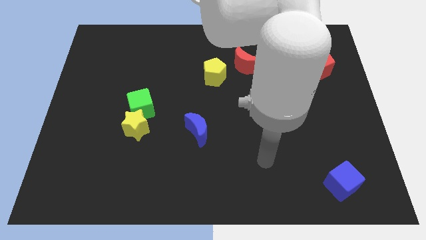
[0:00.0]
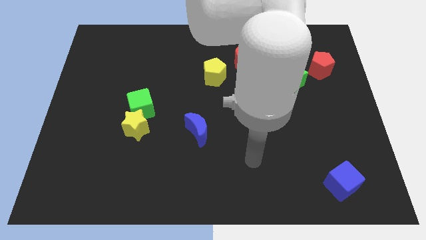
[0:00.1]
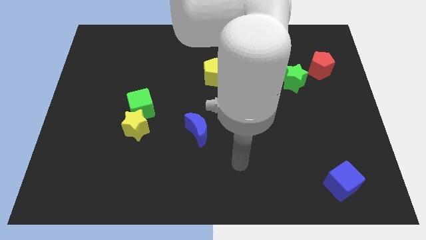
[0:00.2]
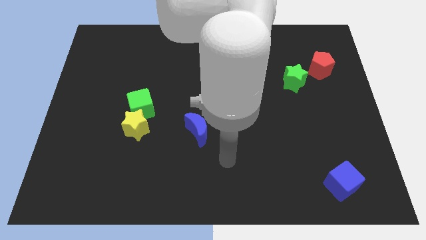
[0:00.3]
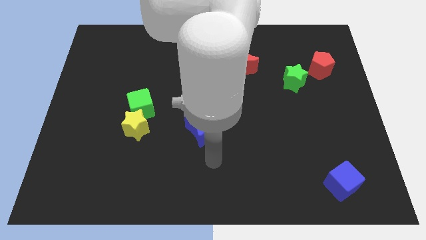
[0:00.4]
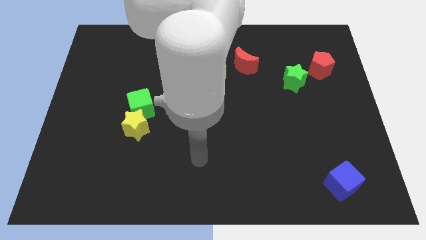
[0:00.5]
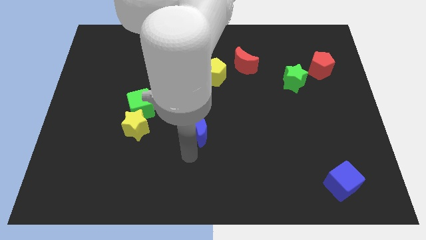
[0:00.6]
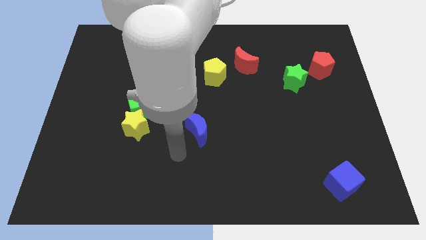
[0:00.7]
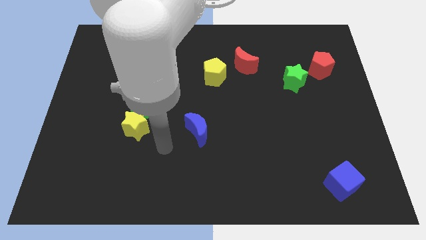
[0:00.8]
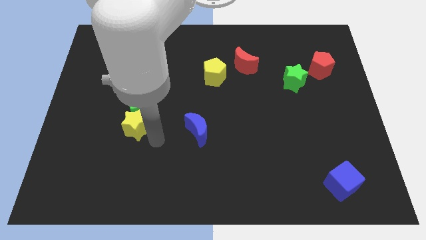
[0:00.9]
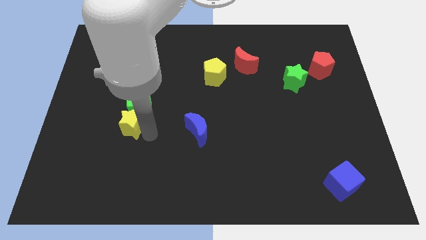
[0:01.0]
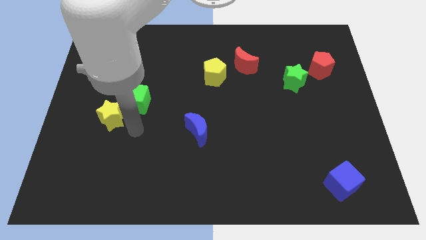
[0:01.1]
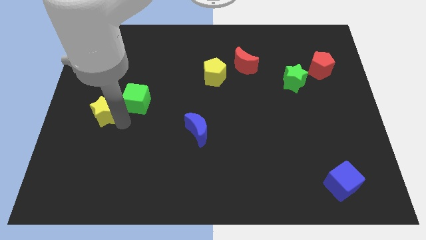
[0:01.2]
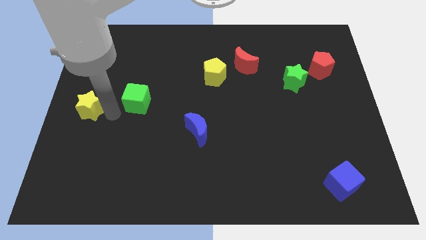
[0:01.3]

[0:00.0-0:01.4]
move the green cube away from the yellow star

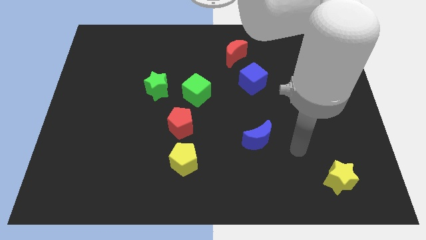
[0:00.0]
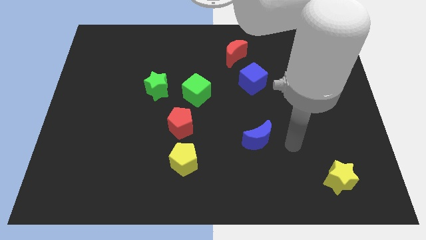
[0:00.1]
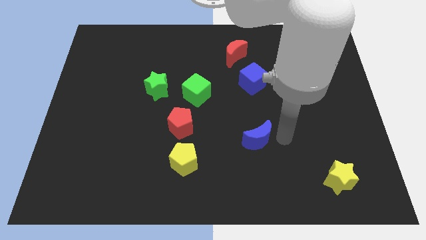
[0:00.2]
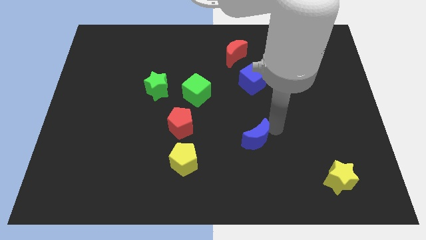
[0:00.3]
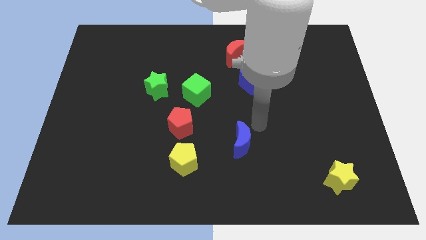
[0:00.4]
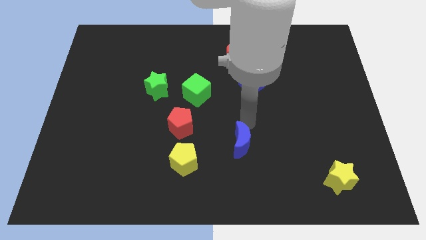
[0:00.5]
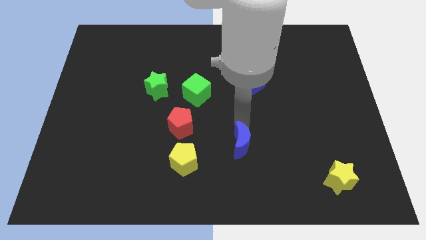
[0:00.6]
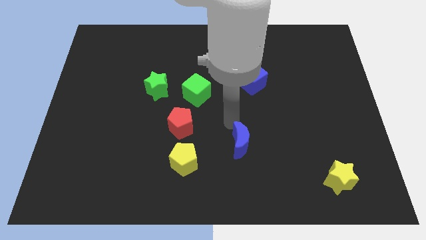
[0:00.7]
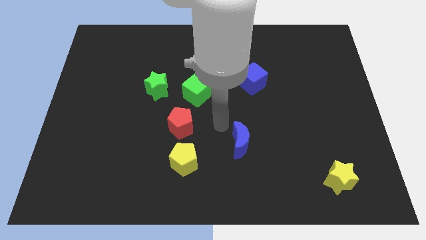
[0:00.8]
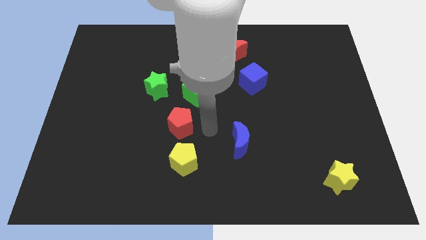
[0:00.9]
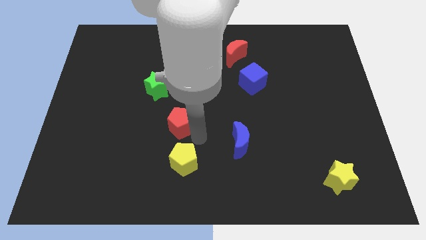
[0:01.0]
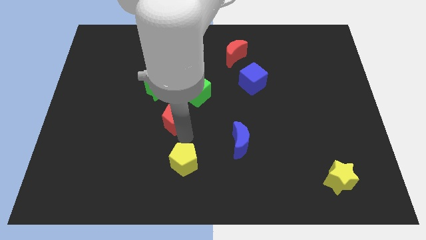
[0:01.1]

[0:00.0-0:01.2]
pull the yellow pentagon apart from the red pentagon

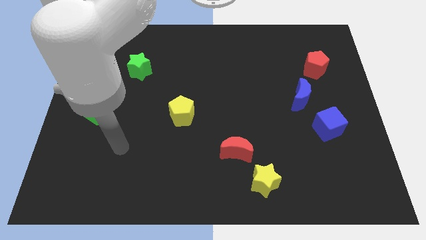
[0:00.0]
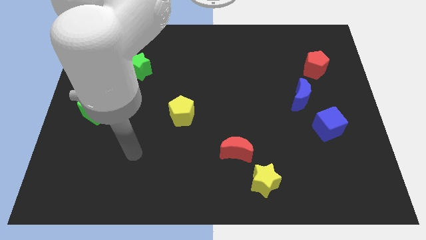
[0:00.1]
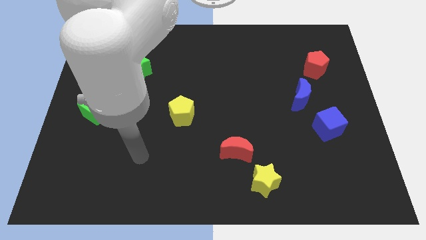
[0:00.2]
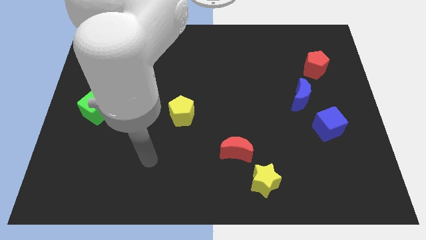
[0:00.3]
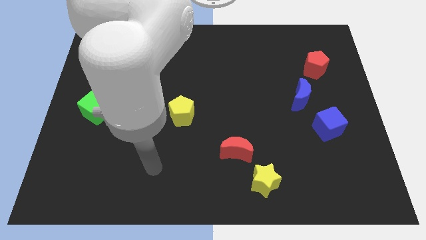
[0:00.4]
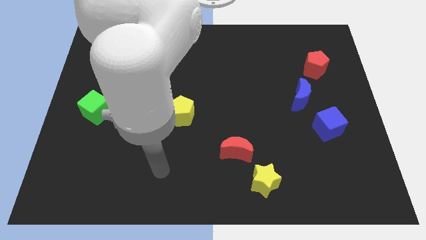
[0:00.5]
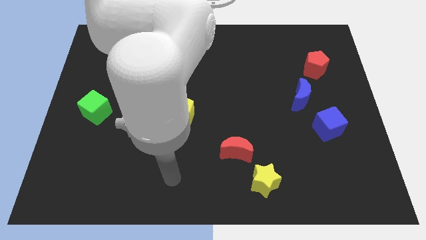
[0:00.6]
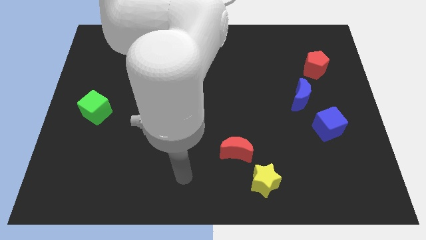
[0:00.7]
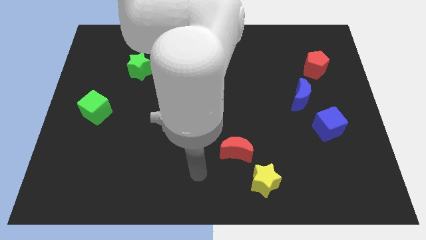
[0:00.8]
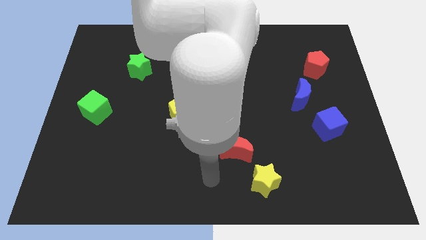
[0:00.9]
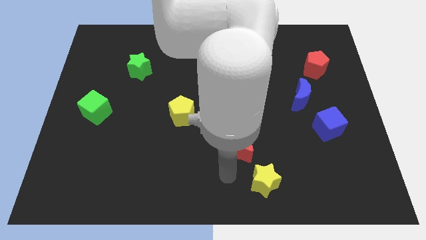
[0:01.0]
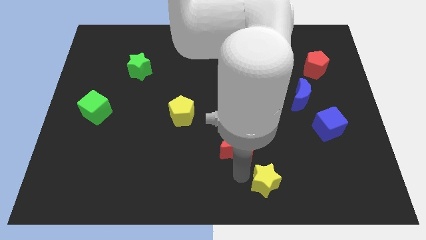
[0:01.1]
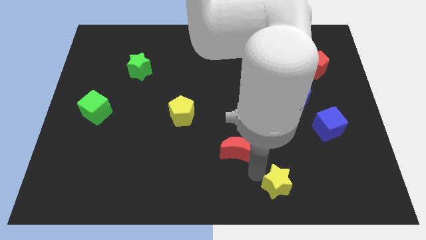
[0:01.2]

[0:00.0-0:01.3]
separate the red moon from the yellow star

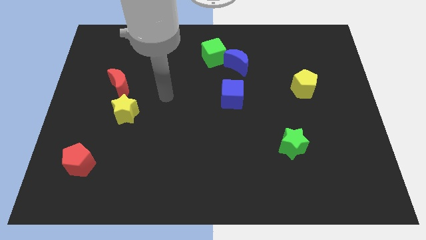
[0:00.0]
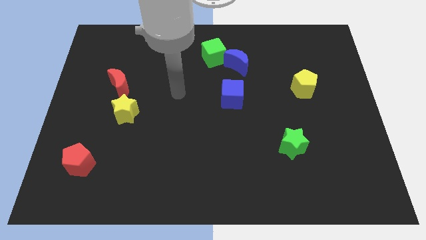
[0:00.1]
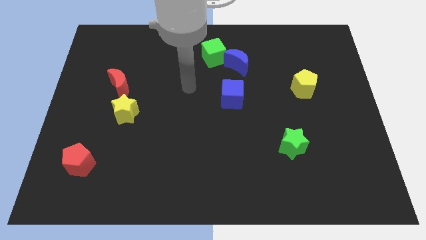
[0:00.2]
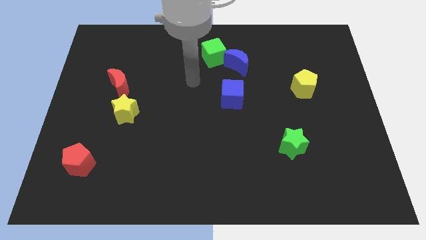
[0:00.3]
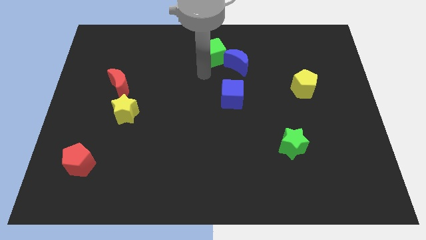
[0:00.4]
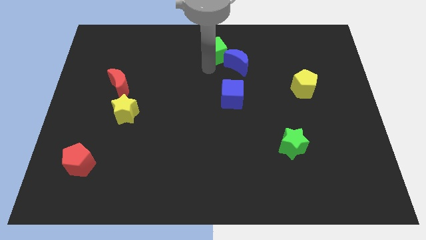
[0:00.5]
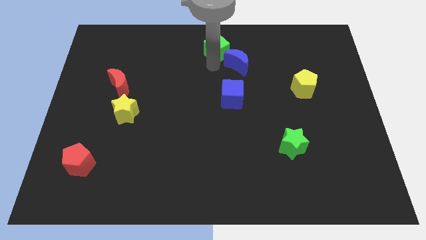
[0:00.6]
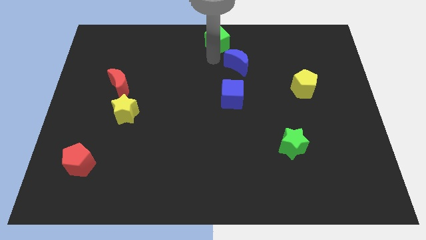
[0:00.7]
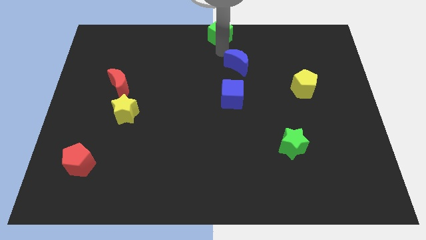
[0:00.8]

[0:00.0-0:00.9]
separate the blue moon from the green cube

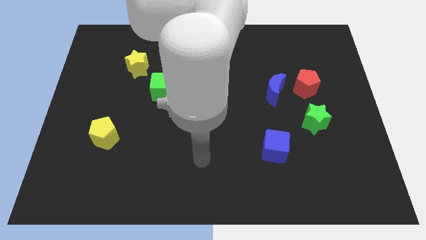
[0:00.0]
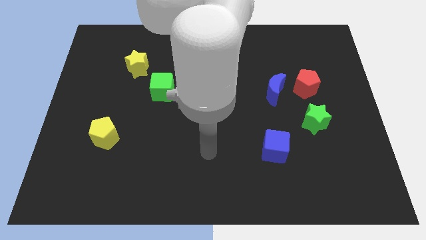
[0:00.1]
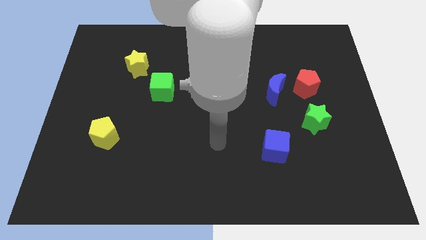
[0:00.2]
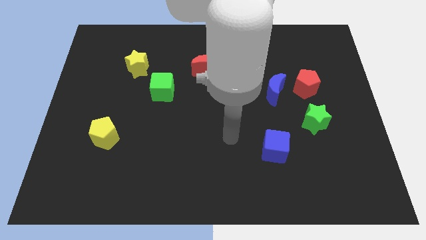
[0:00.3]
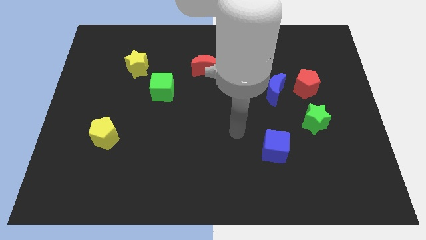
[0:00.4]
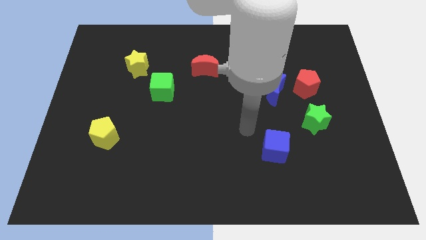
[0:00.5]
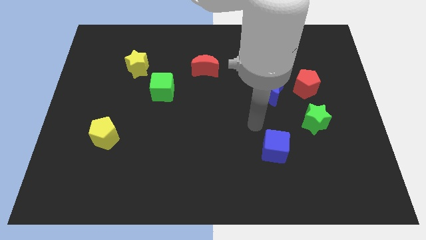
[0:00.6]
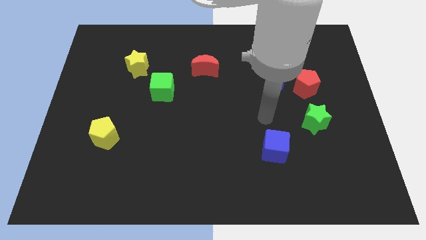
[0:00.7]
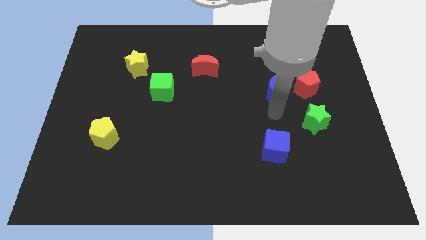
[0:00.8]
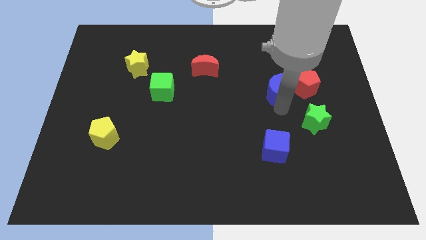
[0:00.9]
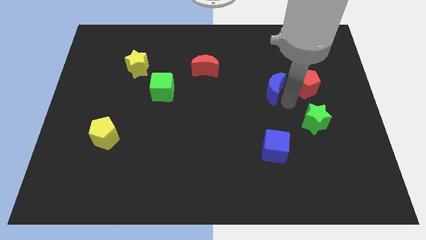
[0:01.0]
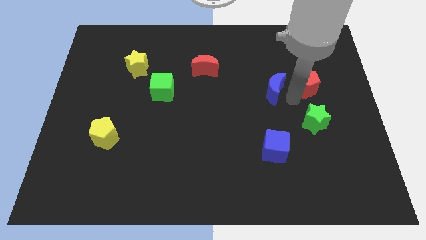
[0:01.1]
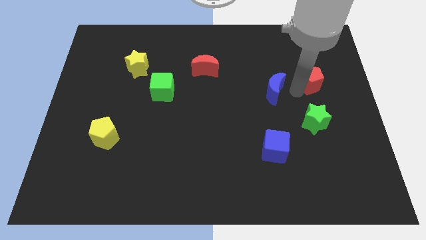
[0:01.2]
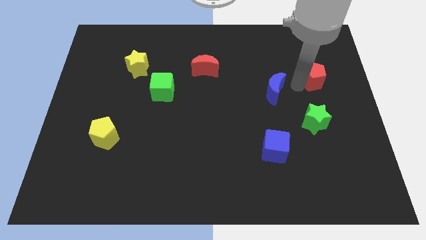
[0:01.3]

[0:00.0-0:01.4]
pull the blue moon apart from the red pentagon

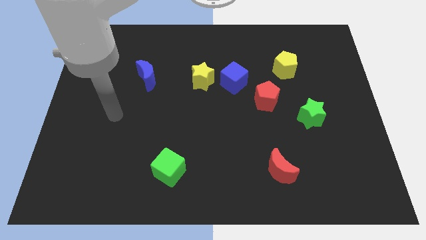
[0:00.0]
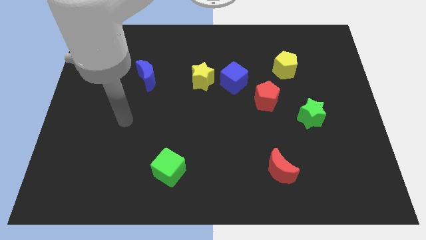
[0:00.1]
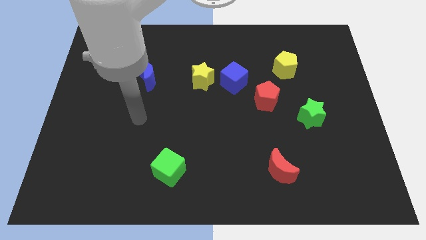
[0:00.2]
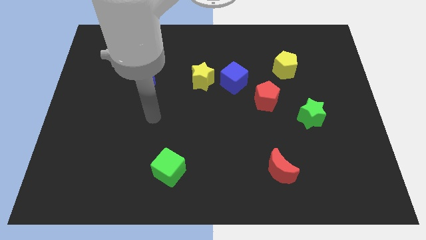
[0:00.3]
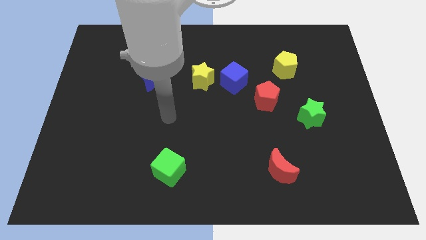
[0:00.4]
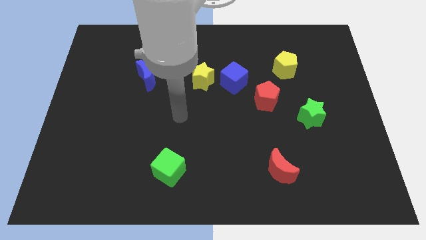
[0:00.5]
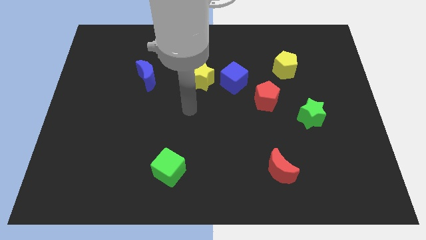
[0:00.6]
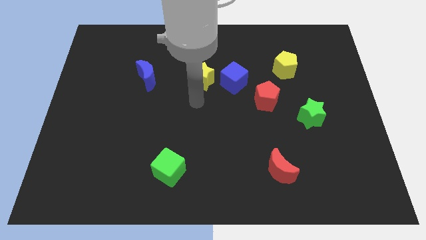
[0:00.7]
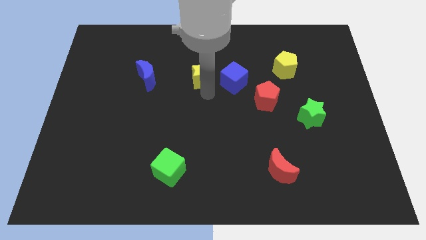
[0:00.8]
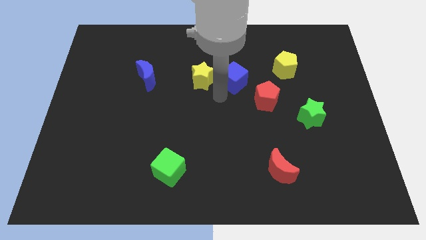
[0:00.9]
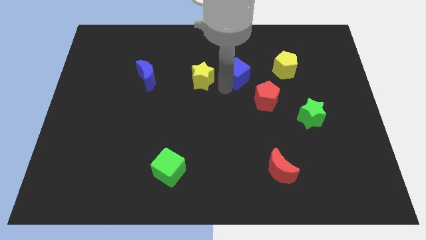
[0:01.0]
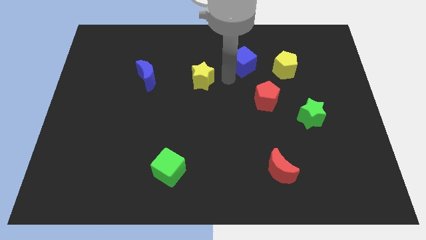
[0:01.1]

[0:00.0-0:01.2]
pull the yellow star apart from the blue cube

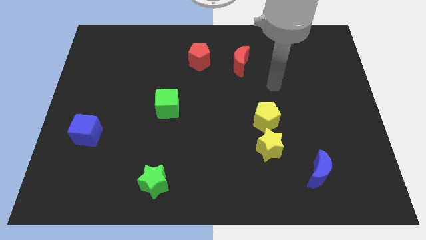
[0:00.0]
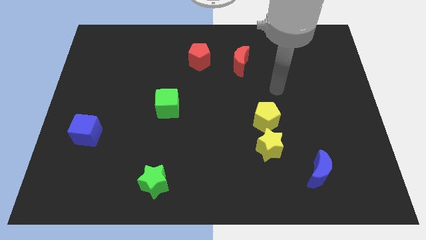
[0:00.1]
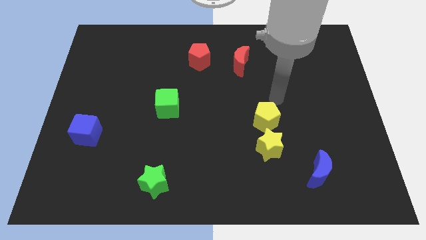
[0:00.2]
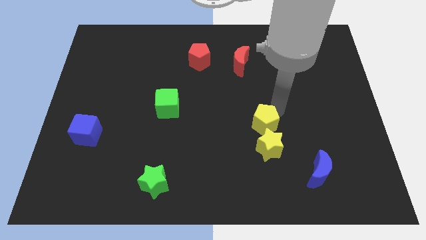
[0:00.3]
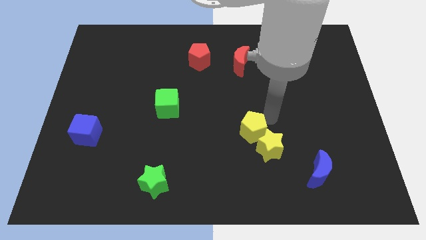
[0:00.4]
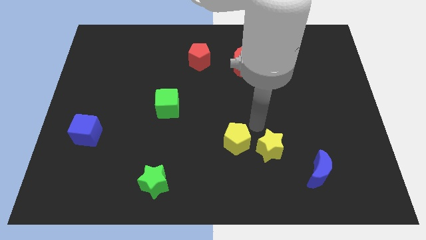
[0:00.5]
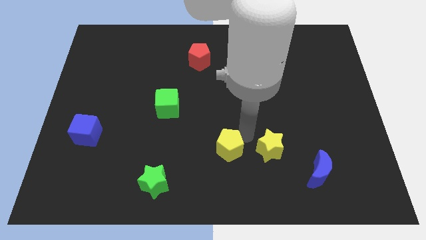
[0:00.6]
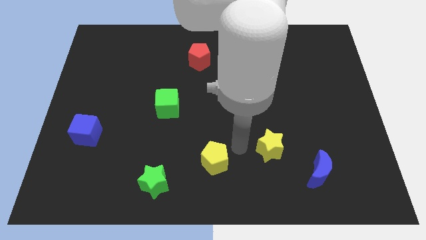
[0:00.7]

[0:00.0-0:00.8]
separate the yellow star from the yellow pentagon

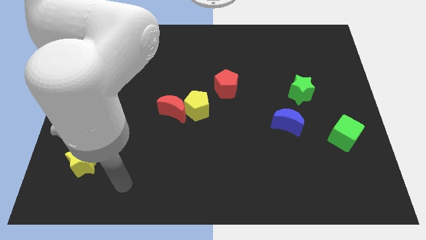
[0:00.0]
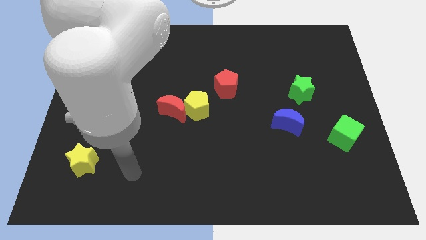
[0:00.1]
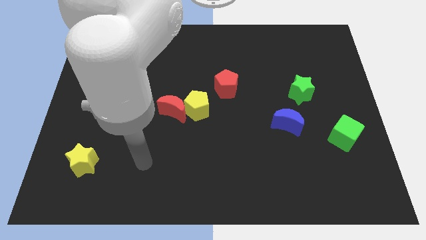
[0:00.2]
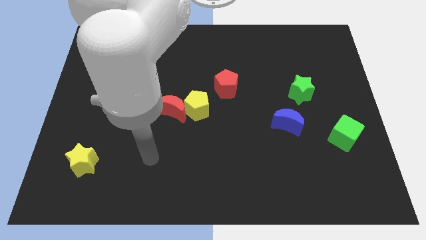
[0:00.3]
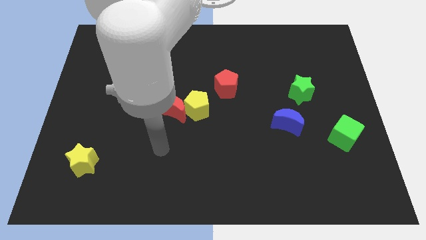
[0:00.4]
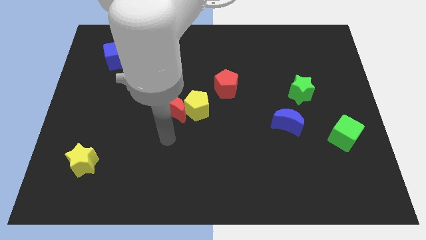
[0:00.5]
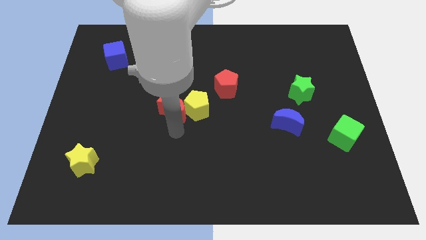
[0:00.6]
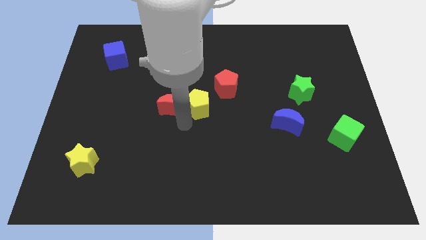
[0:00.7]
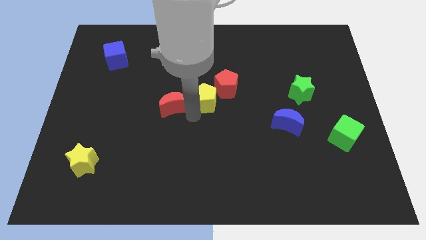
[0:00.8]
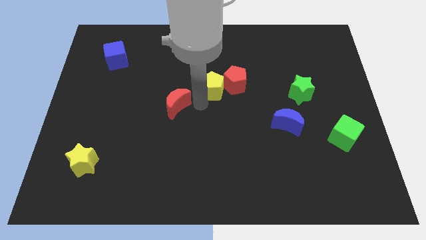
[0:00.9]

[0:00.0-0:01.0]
separate the red moon from the yellow pentagon

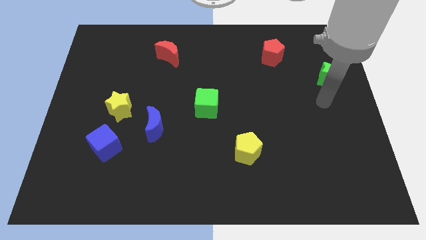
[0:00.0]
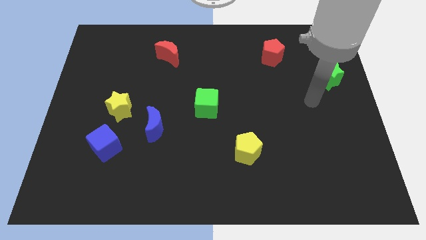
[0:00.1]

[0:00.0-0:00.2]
pull the blue cube apart from the yellow star
